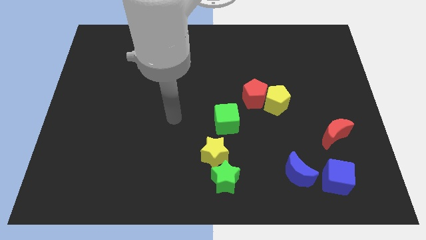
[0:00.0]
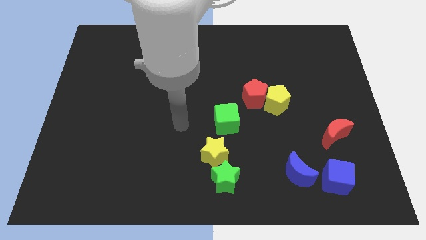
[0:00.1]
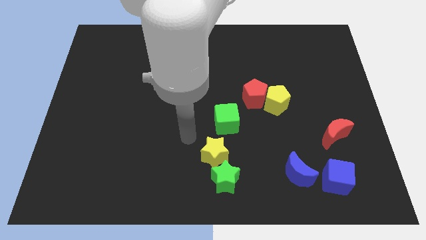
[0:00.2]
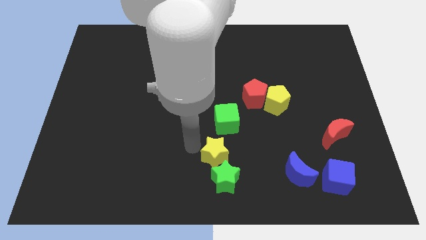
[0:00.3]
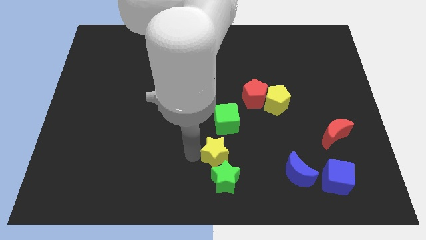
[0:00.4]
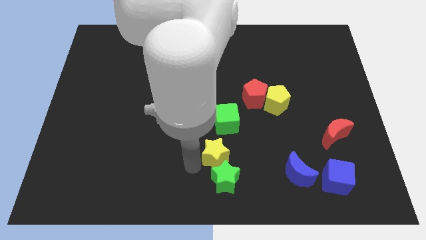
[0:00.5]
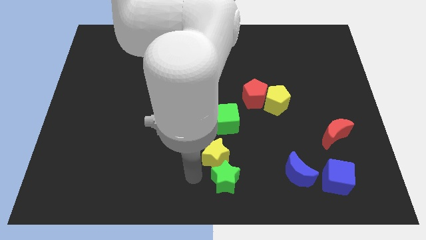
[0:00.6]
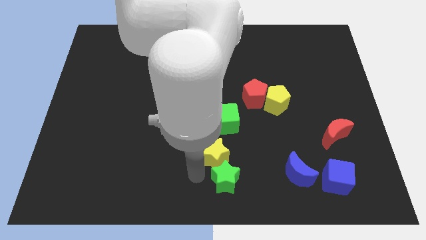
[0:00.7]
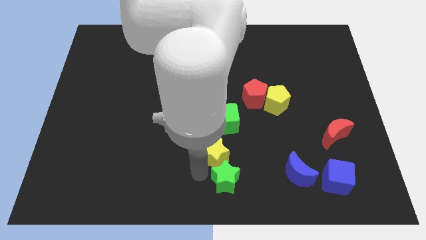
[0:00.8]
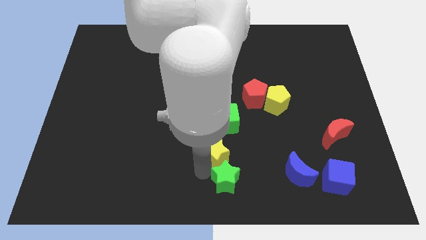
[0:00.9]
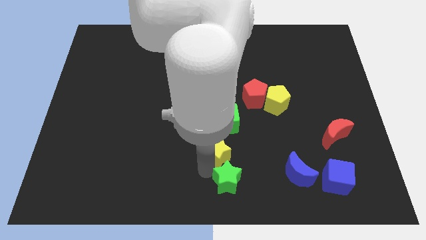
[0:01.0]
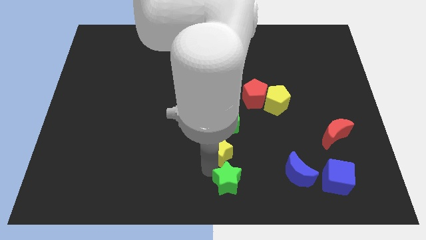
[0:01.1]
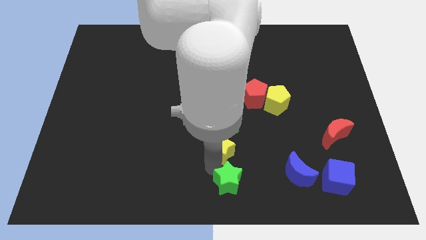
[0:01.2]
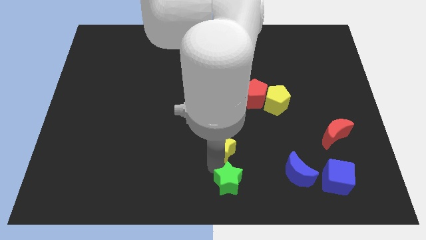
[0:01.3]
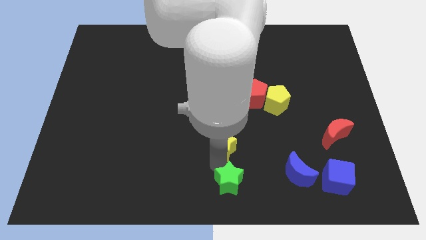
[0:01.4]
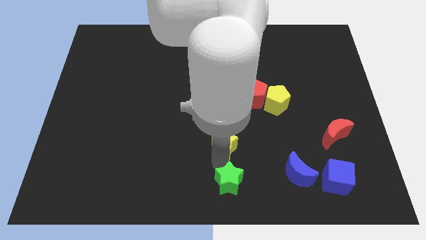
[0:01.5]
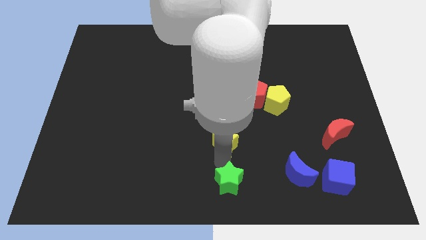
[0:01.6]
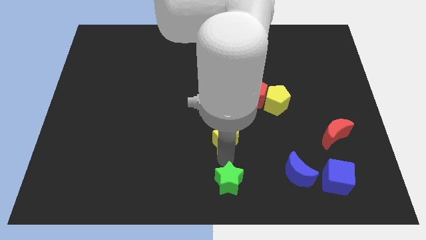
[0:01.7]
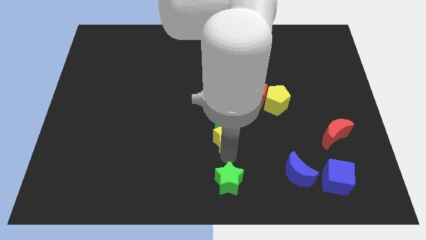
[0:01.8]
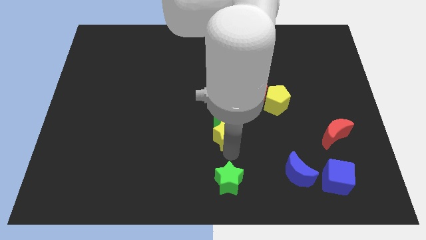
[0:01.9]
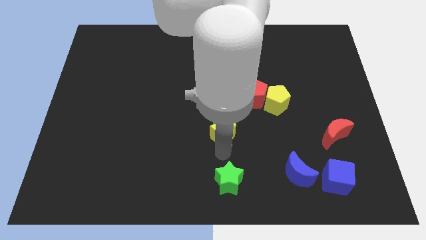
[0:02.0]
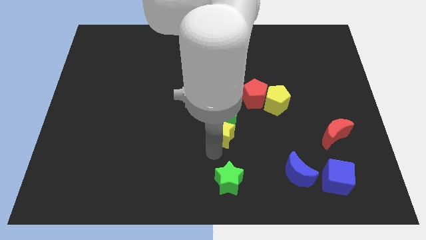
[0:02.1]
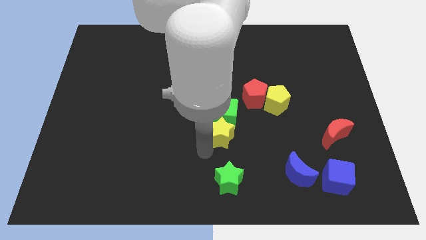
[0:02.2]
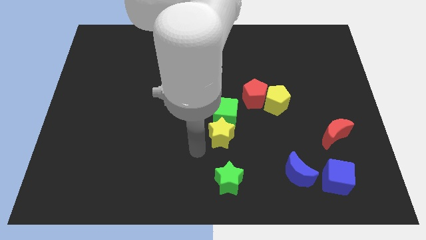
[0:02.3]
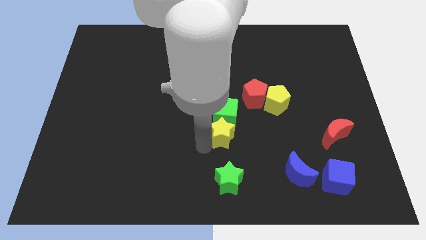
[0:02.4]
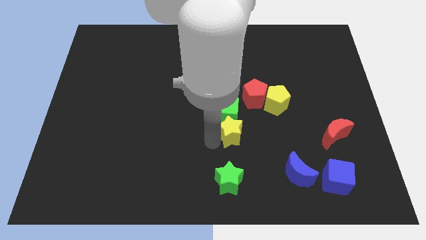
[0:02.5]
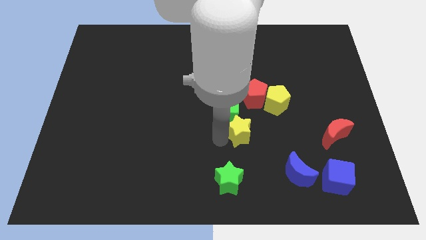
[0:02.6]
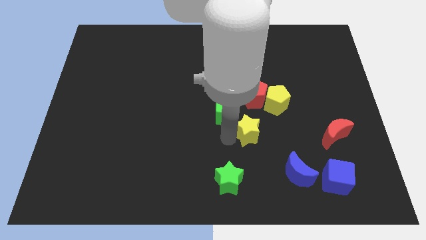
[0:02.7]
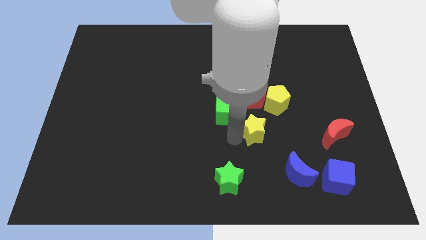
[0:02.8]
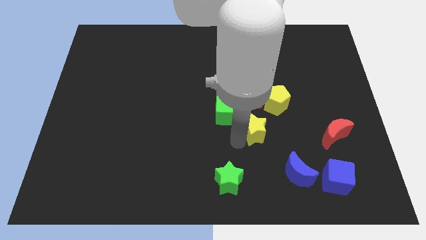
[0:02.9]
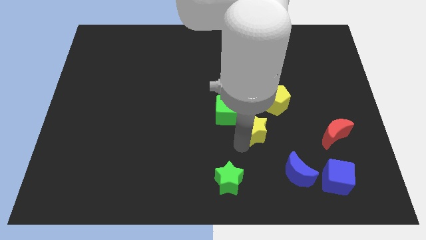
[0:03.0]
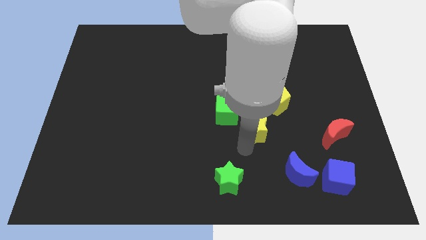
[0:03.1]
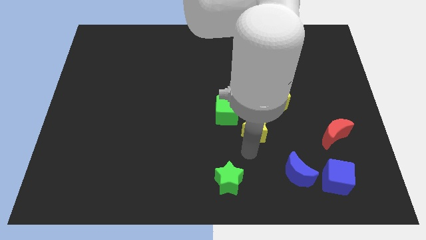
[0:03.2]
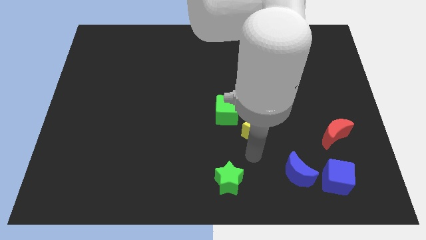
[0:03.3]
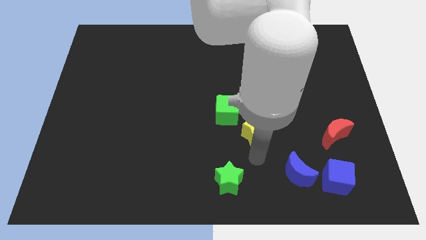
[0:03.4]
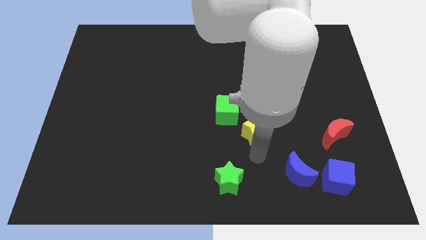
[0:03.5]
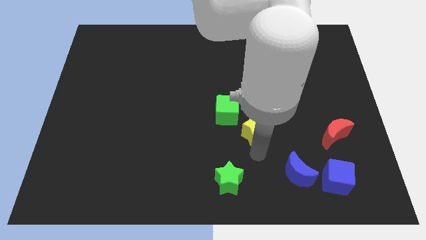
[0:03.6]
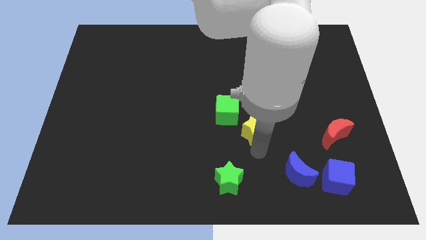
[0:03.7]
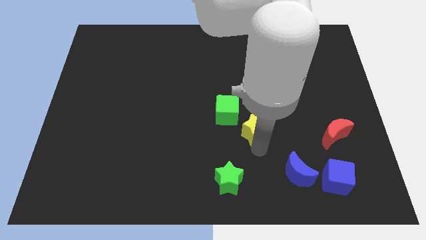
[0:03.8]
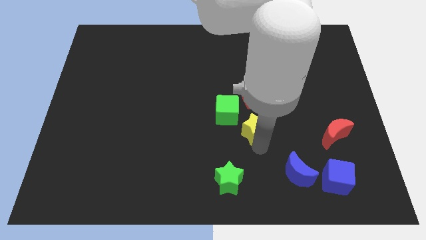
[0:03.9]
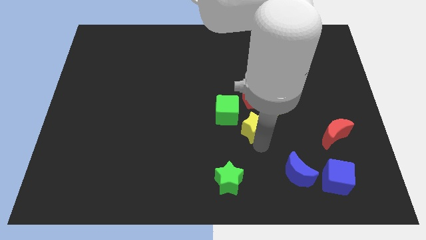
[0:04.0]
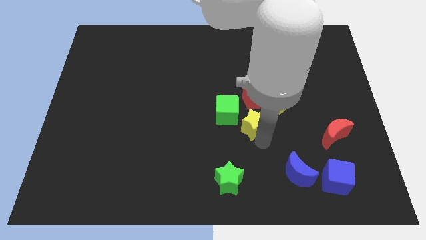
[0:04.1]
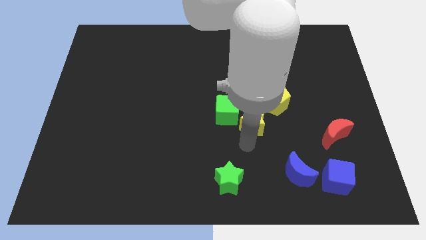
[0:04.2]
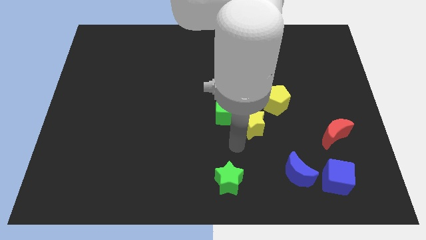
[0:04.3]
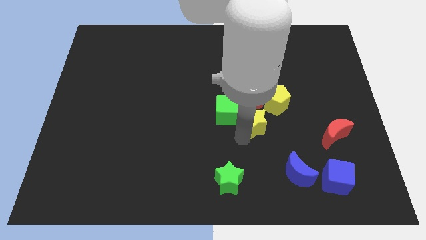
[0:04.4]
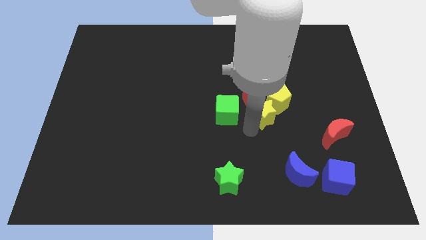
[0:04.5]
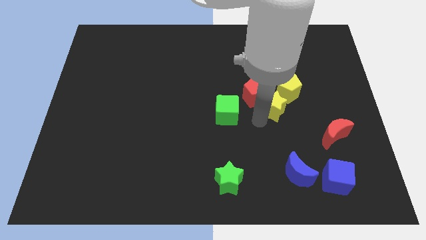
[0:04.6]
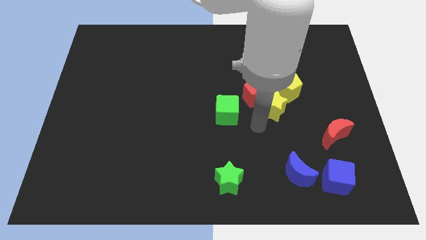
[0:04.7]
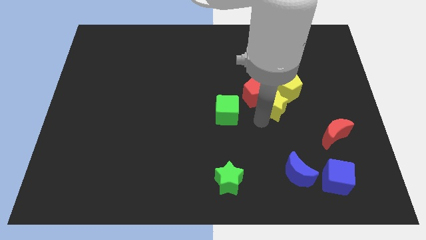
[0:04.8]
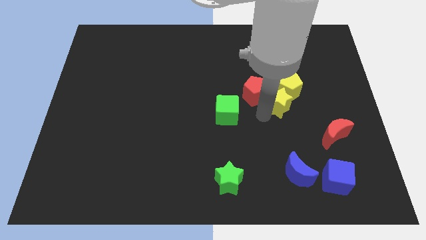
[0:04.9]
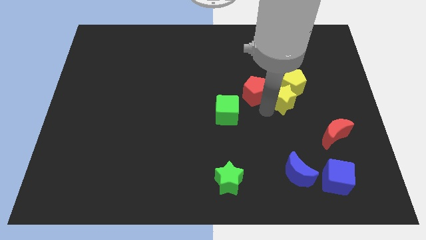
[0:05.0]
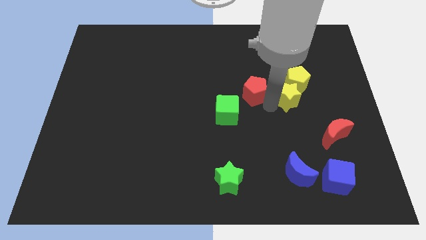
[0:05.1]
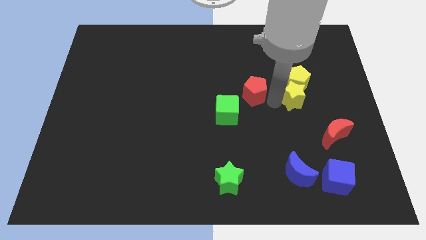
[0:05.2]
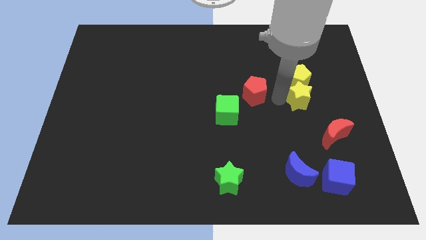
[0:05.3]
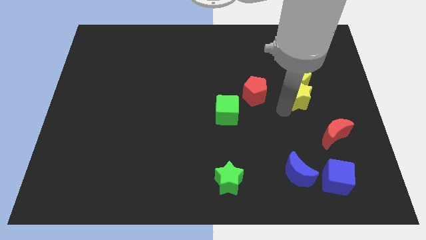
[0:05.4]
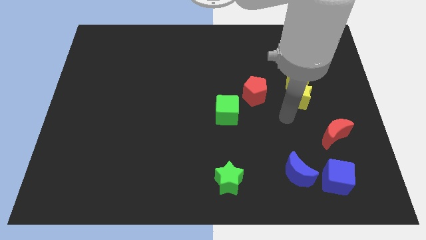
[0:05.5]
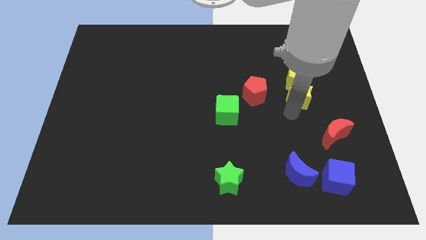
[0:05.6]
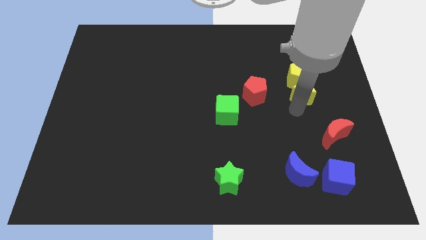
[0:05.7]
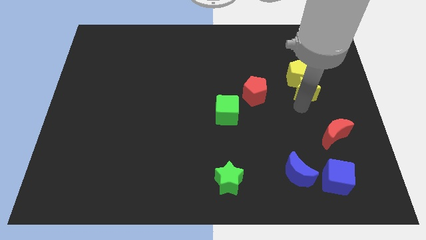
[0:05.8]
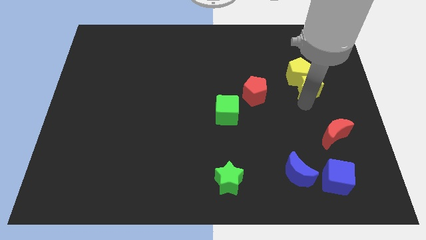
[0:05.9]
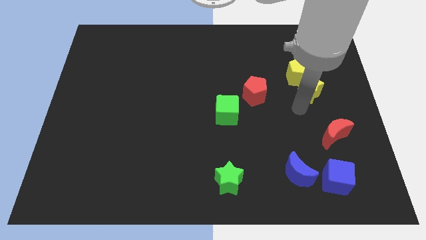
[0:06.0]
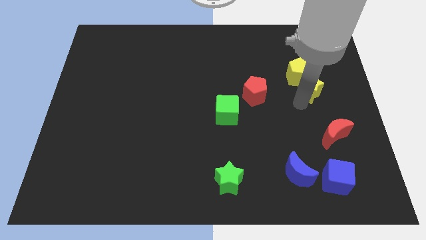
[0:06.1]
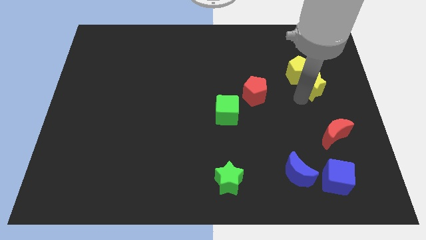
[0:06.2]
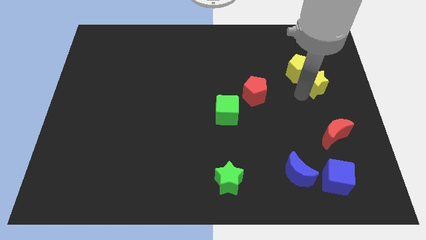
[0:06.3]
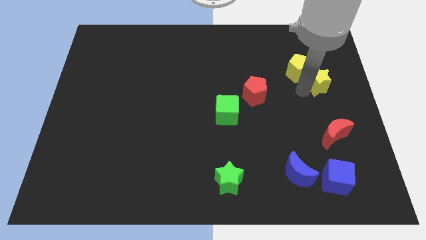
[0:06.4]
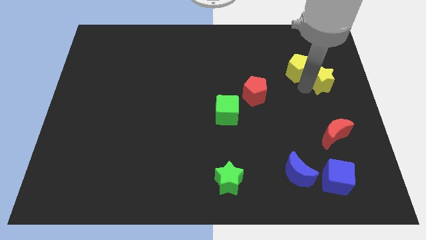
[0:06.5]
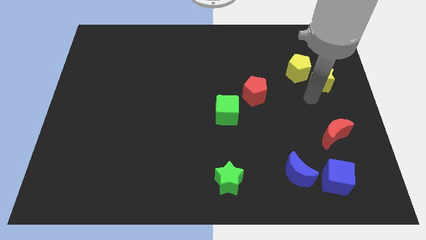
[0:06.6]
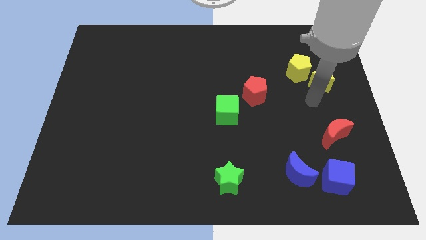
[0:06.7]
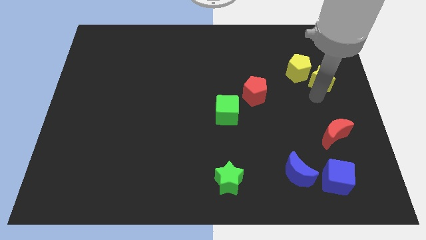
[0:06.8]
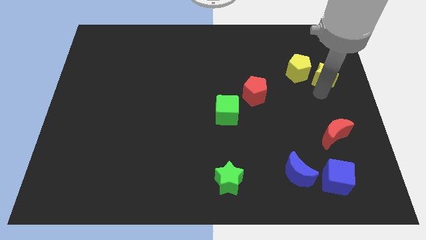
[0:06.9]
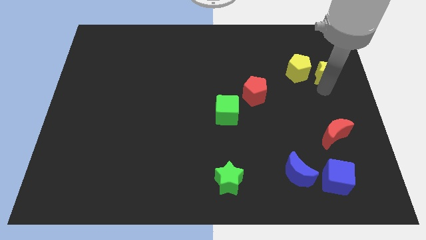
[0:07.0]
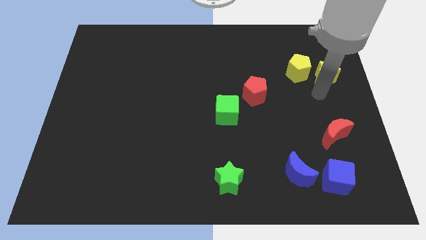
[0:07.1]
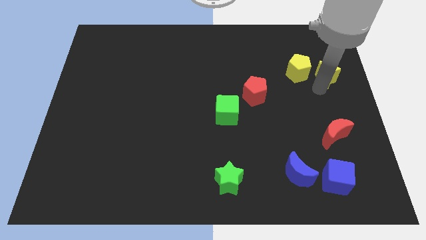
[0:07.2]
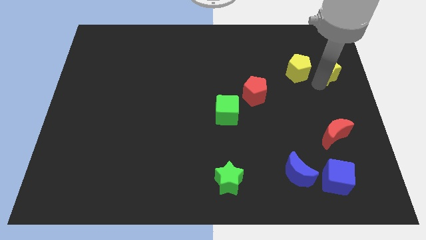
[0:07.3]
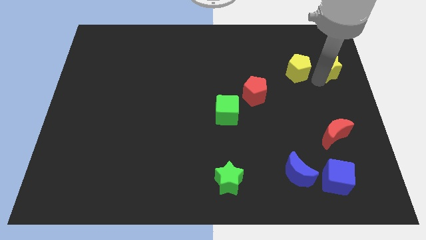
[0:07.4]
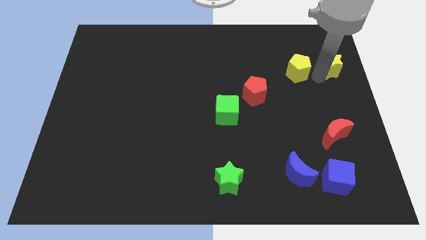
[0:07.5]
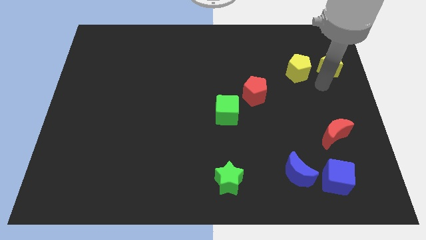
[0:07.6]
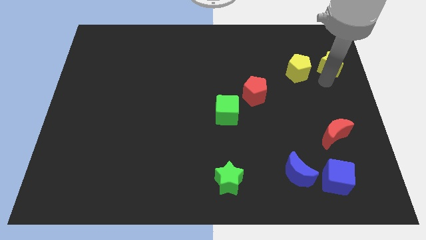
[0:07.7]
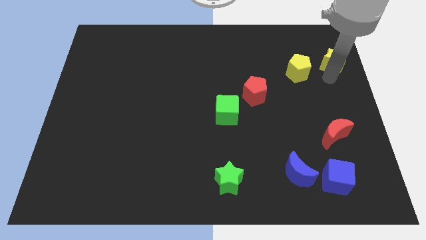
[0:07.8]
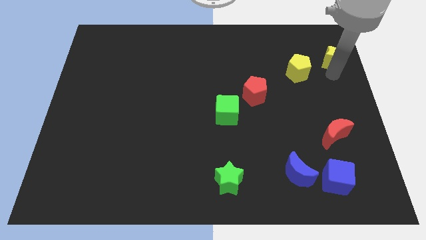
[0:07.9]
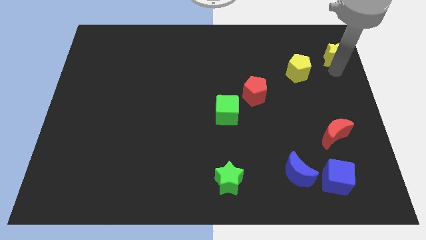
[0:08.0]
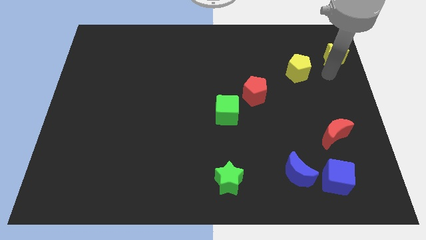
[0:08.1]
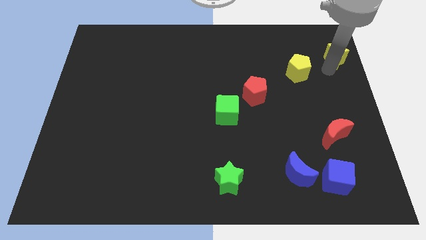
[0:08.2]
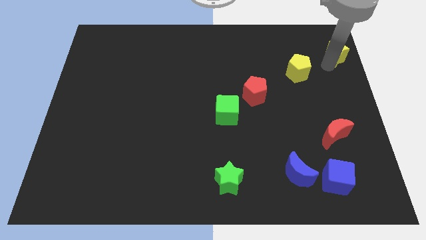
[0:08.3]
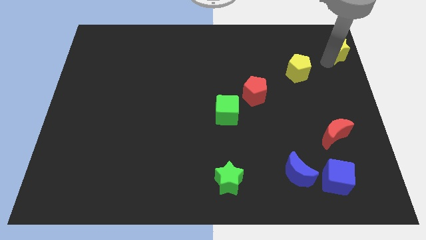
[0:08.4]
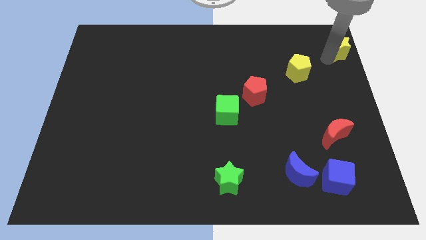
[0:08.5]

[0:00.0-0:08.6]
put the yellow star to the upper right corner
